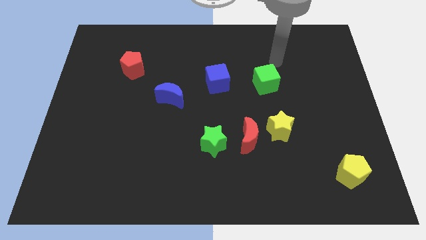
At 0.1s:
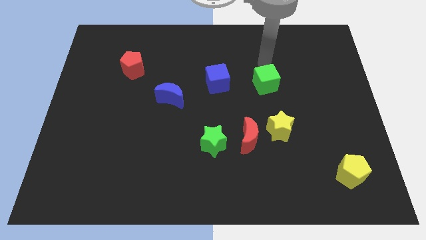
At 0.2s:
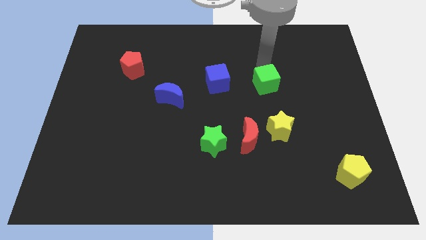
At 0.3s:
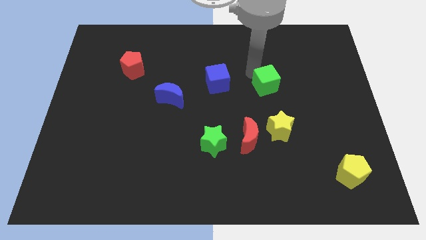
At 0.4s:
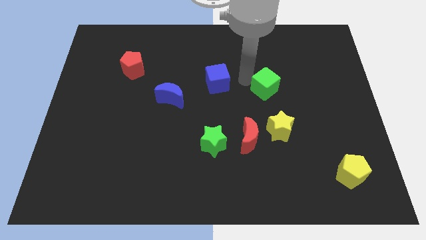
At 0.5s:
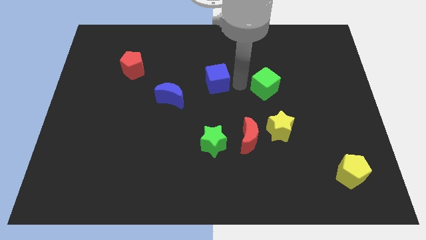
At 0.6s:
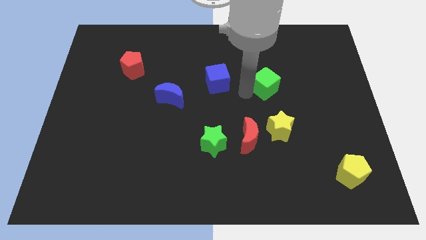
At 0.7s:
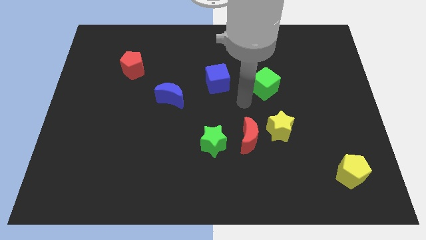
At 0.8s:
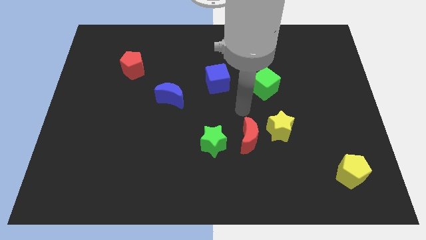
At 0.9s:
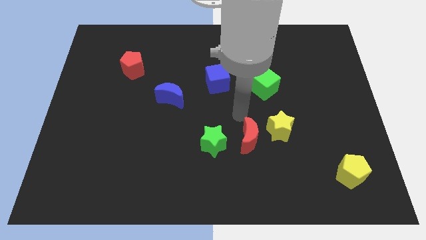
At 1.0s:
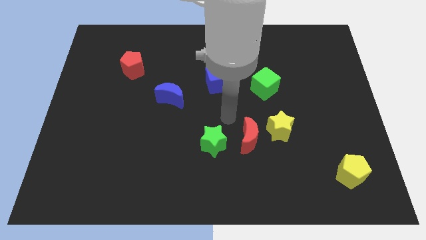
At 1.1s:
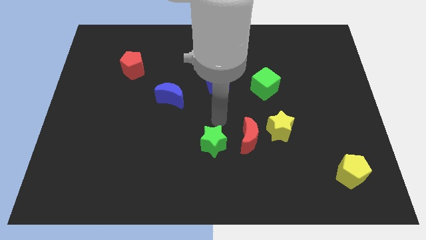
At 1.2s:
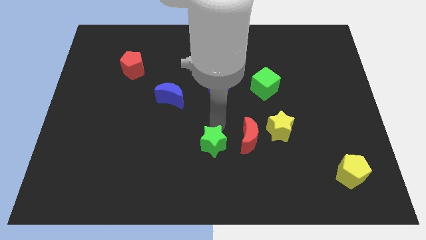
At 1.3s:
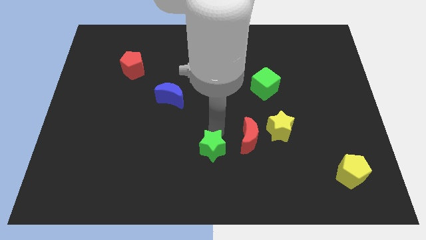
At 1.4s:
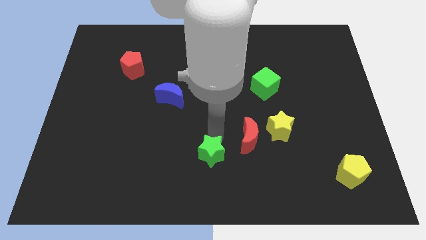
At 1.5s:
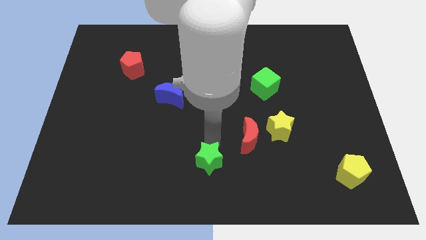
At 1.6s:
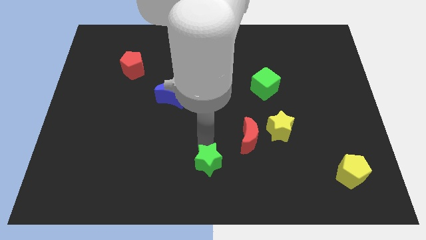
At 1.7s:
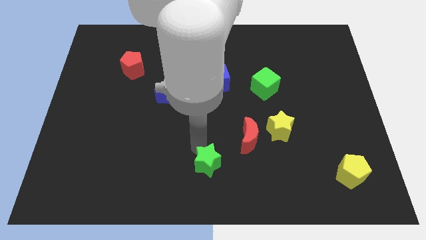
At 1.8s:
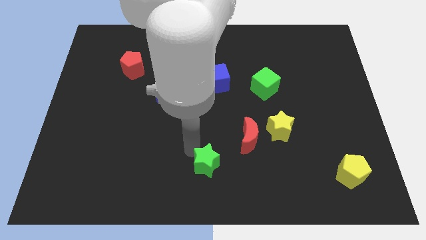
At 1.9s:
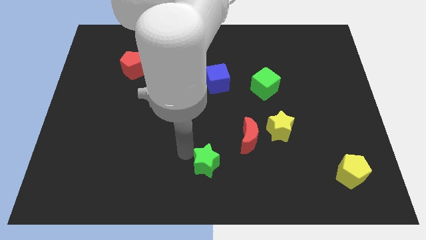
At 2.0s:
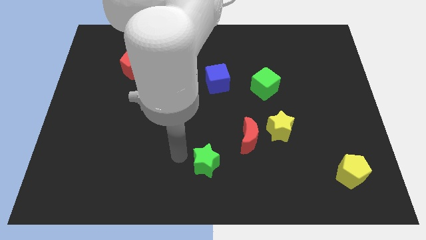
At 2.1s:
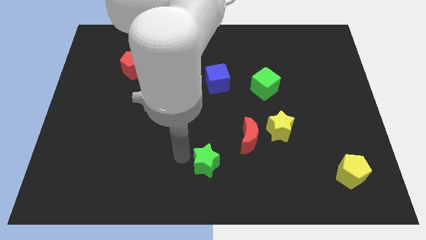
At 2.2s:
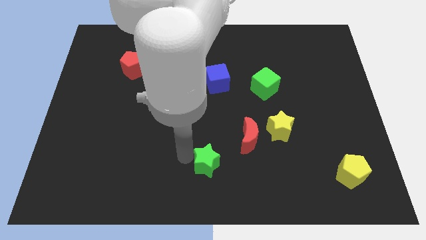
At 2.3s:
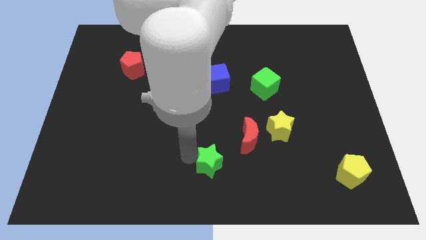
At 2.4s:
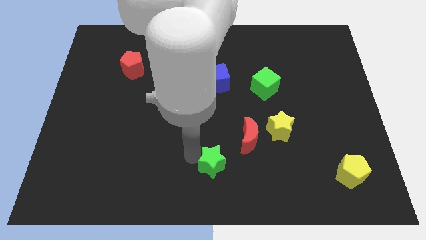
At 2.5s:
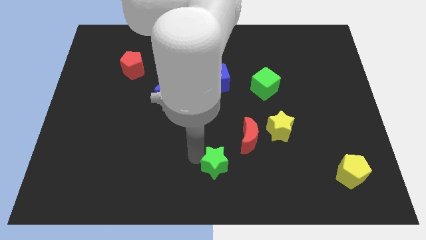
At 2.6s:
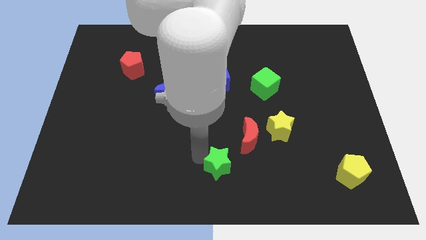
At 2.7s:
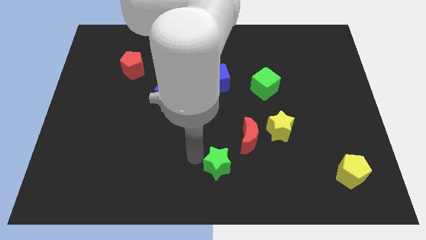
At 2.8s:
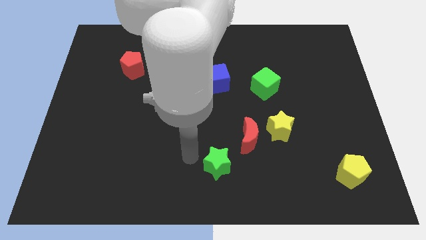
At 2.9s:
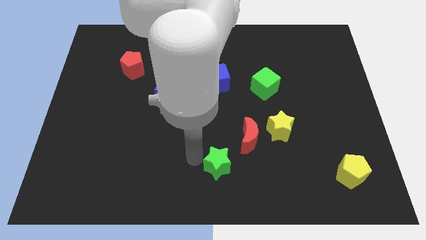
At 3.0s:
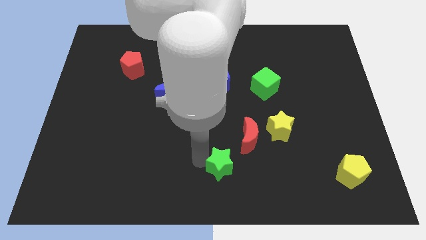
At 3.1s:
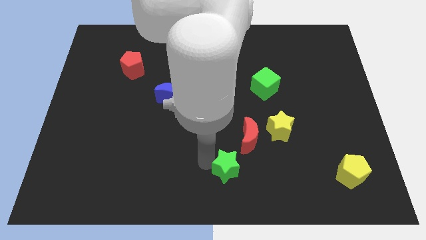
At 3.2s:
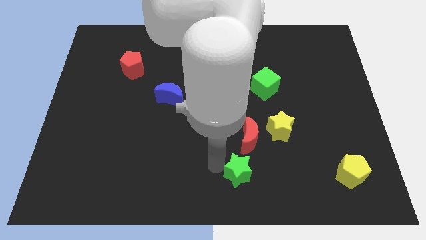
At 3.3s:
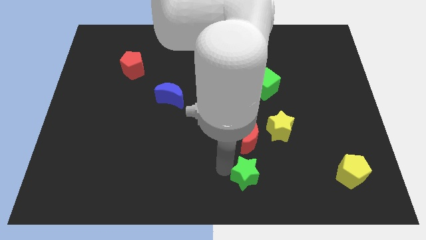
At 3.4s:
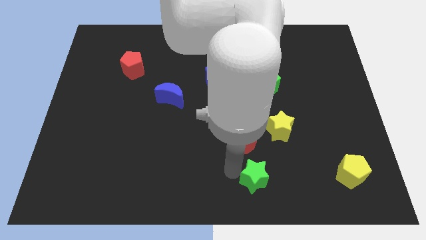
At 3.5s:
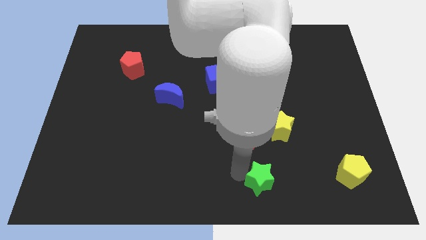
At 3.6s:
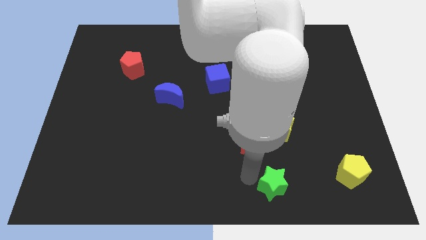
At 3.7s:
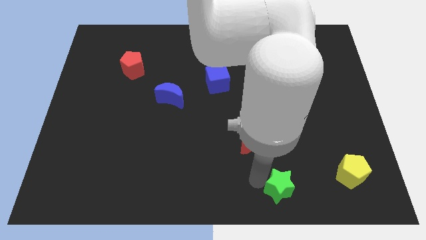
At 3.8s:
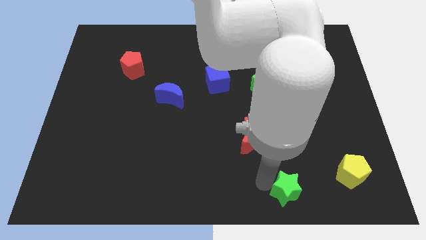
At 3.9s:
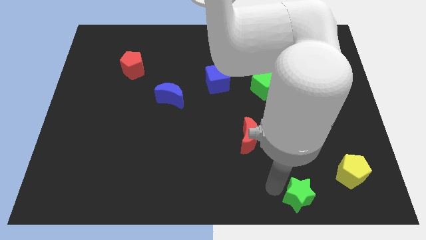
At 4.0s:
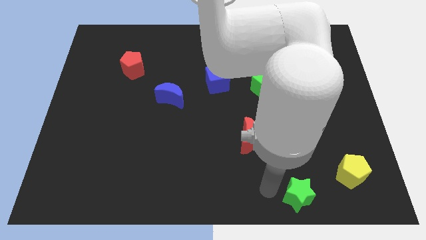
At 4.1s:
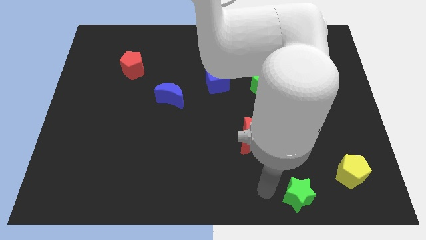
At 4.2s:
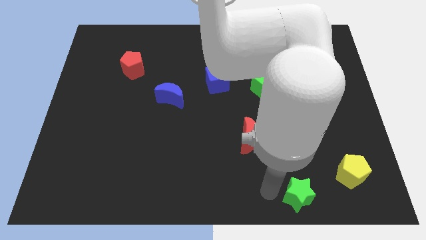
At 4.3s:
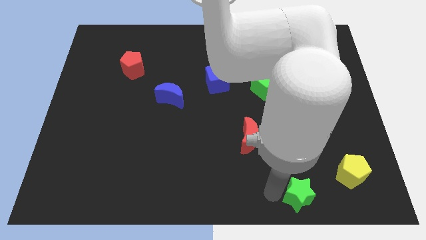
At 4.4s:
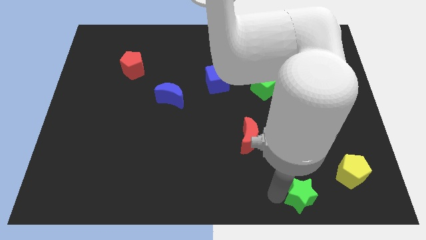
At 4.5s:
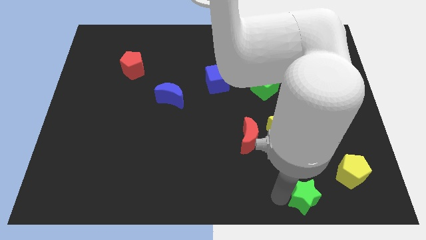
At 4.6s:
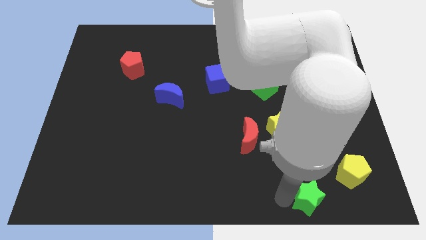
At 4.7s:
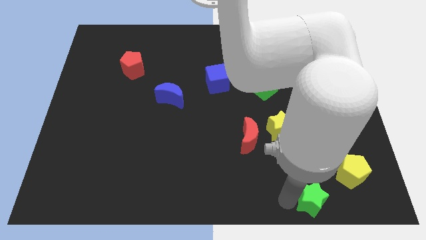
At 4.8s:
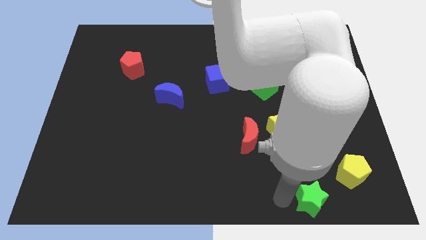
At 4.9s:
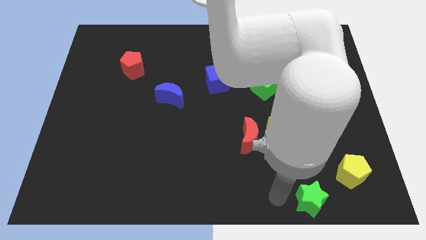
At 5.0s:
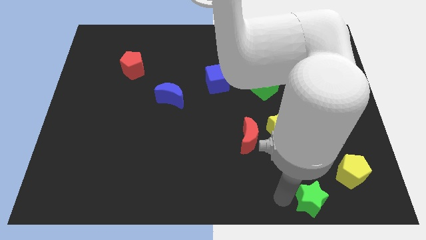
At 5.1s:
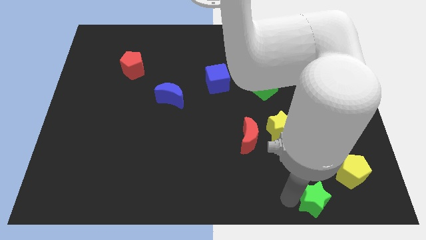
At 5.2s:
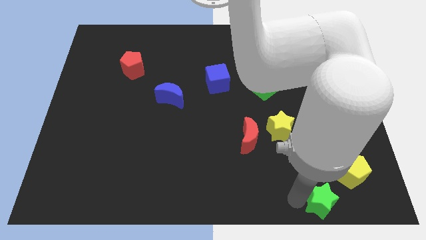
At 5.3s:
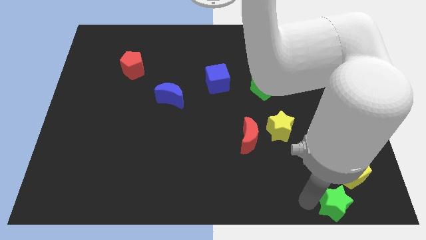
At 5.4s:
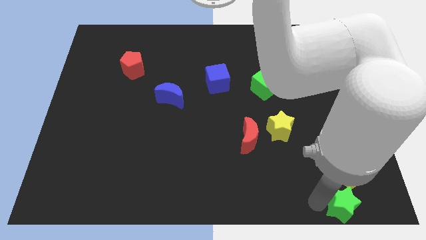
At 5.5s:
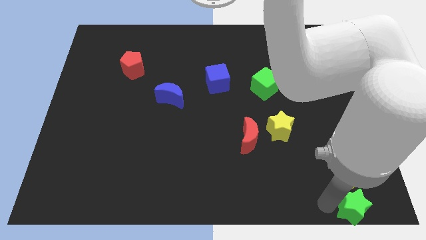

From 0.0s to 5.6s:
push the green star to the lower right corner
